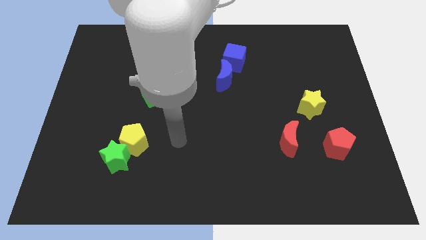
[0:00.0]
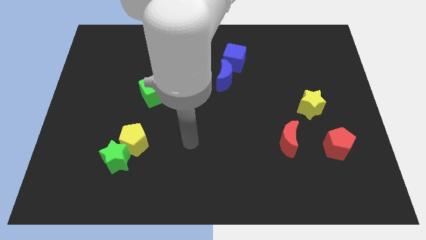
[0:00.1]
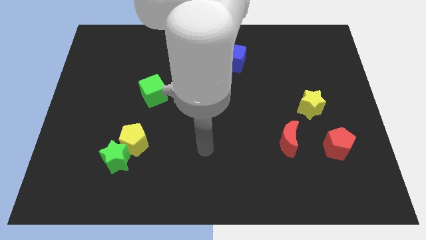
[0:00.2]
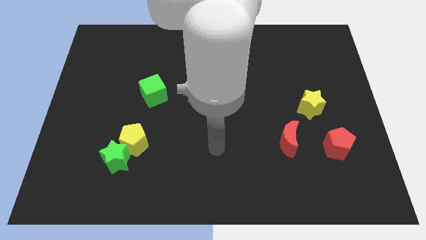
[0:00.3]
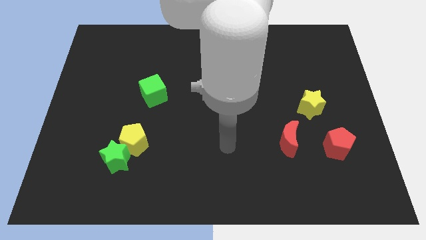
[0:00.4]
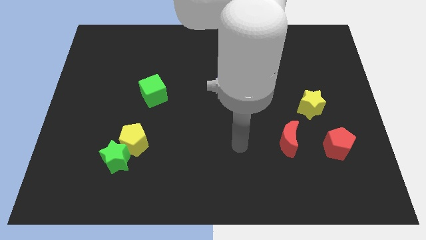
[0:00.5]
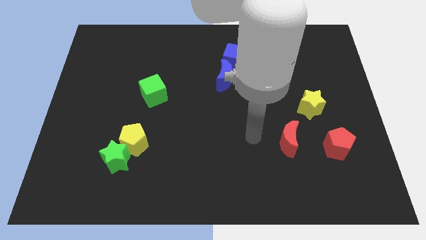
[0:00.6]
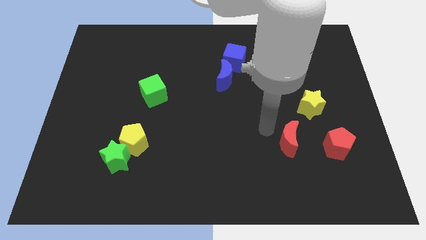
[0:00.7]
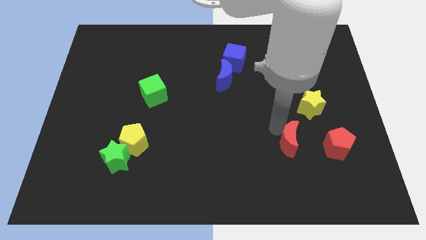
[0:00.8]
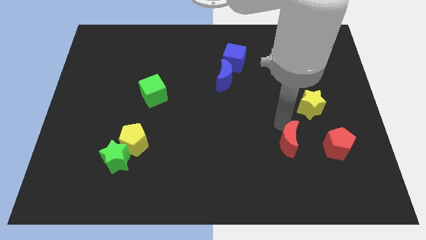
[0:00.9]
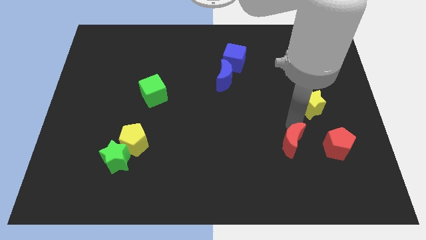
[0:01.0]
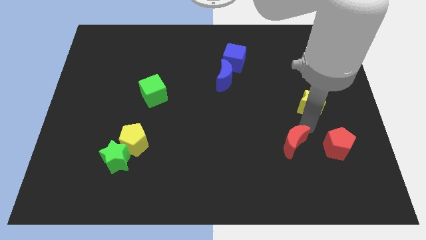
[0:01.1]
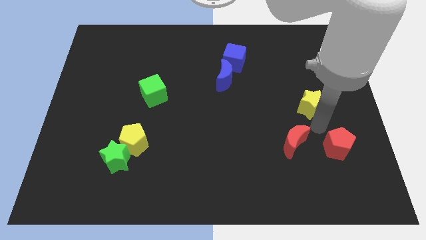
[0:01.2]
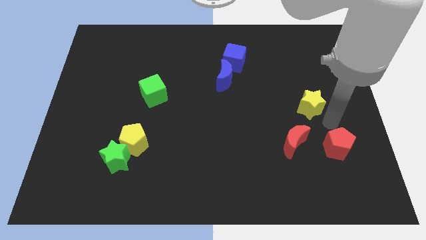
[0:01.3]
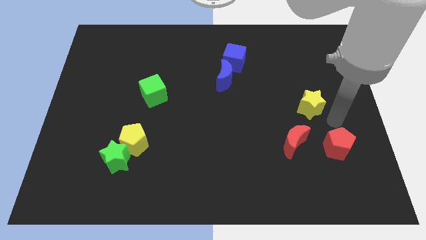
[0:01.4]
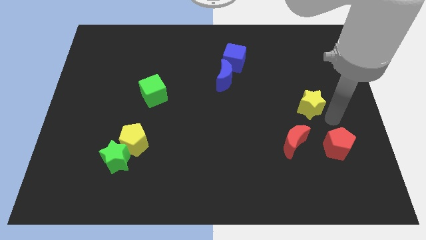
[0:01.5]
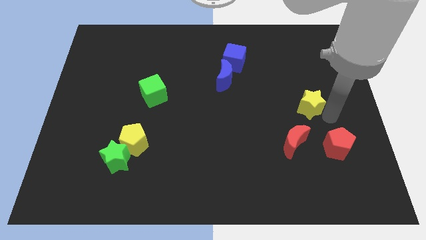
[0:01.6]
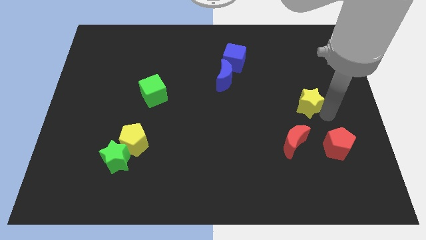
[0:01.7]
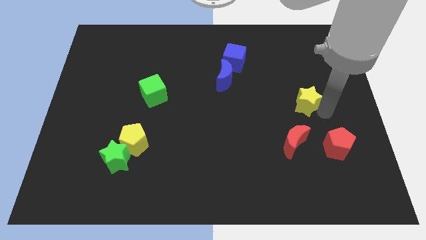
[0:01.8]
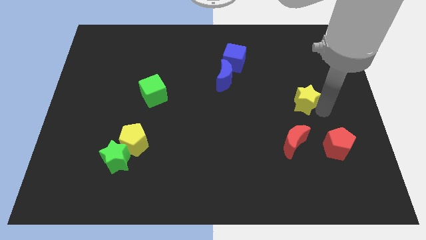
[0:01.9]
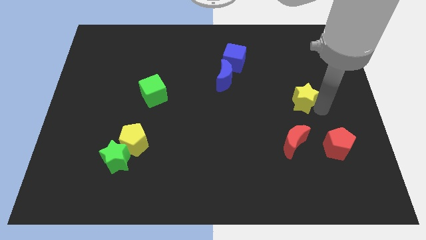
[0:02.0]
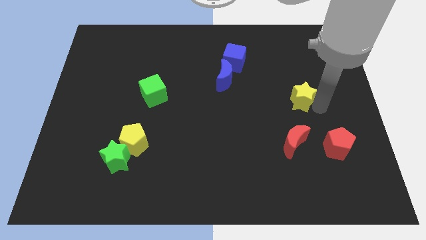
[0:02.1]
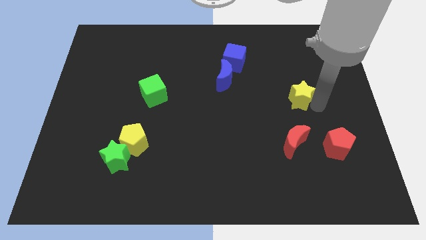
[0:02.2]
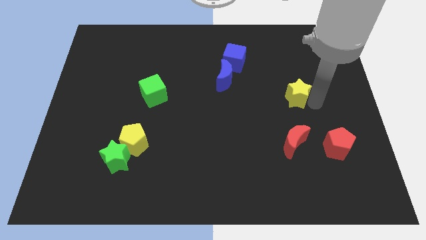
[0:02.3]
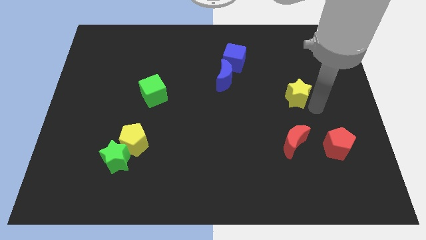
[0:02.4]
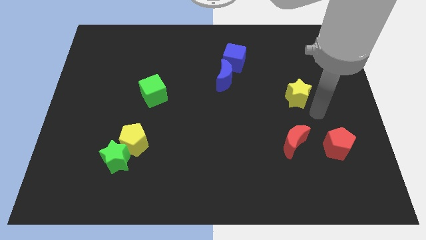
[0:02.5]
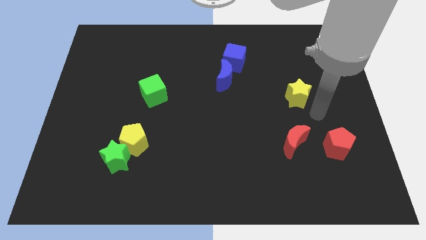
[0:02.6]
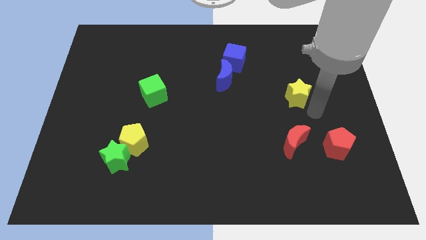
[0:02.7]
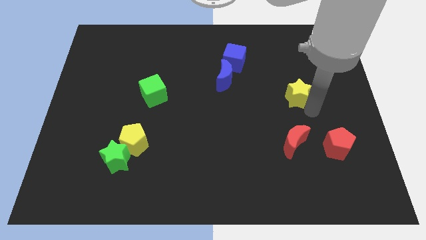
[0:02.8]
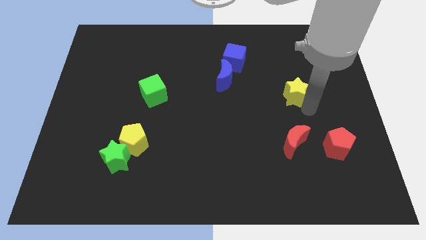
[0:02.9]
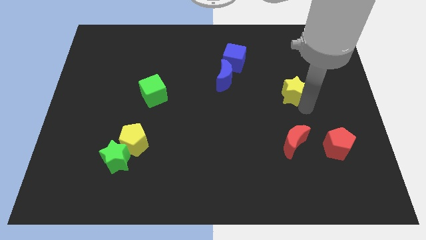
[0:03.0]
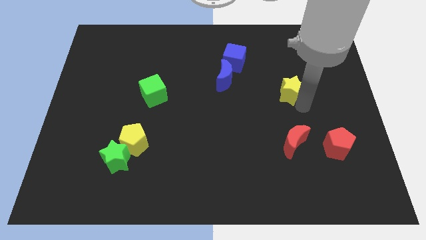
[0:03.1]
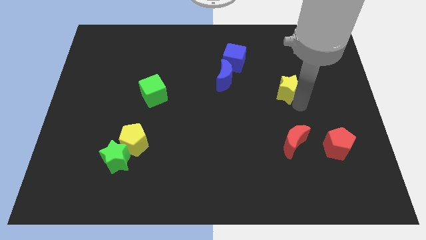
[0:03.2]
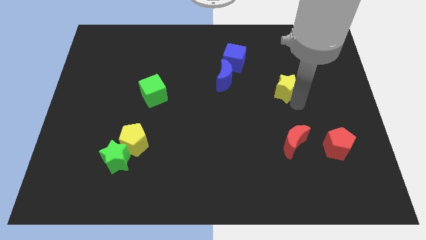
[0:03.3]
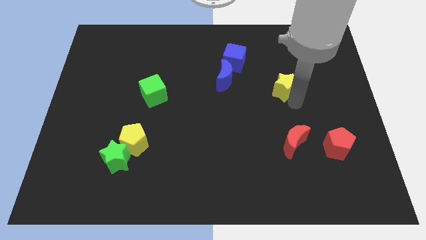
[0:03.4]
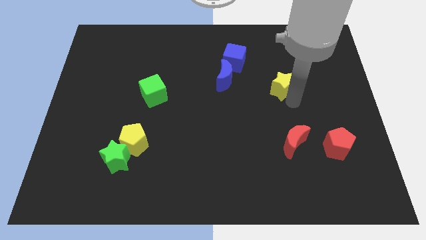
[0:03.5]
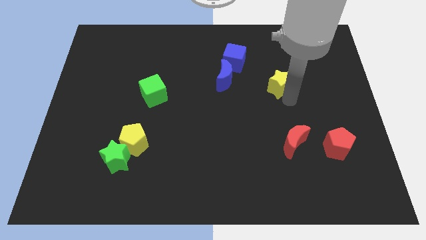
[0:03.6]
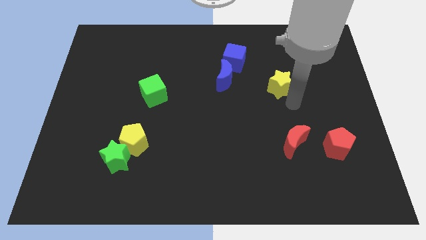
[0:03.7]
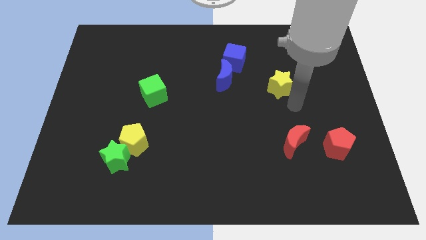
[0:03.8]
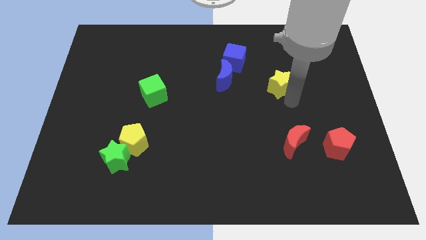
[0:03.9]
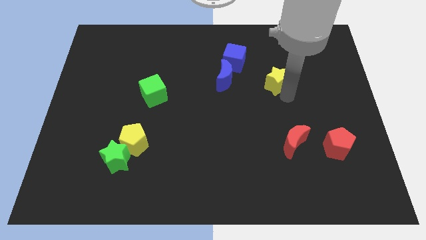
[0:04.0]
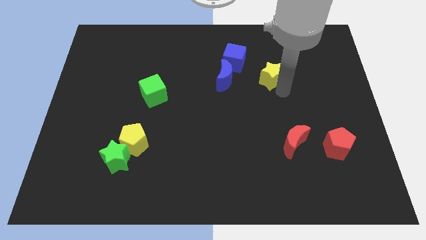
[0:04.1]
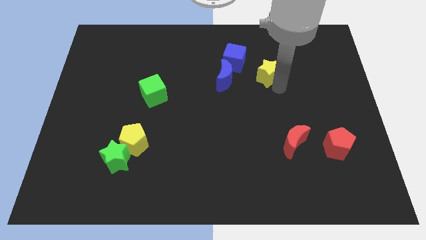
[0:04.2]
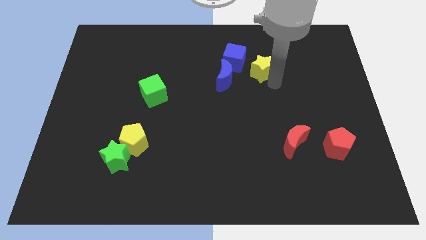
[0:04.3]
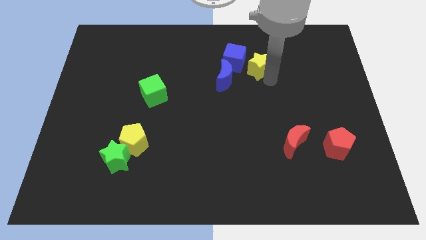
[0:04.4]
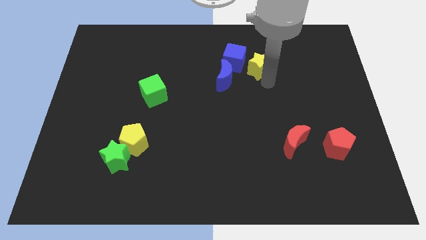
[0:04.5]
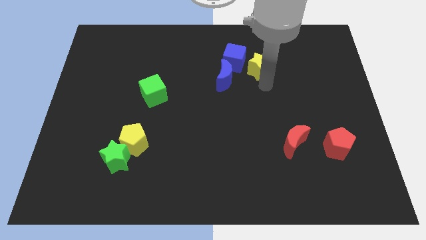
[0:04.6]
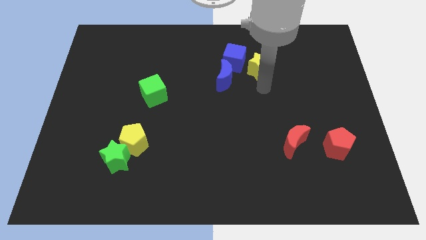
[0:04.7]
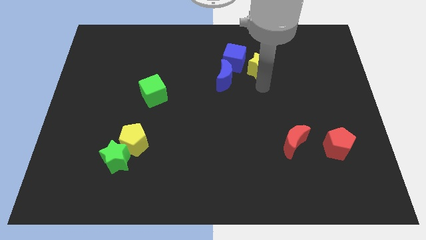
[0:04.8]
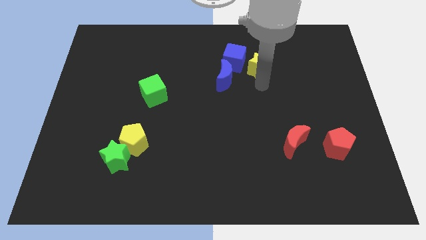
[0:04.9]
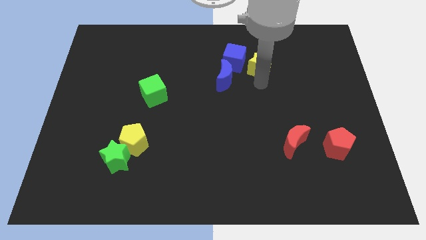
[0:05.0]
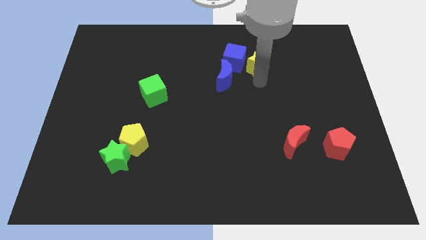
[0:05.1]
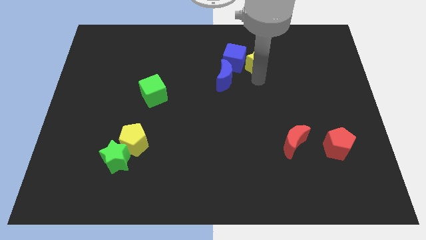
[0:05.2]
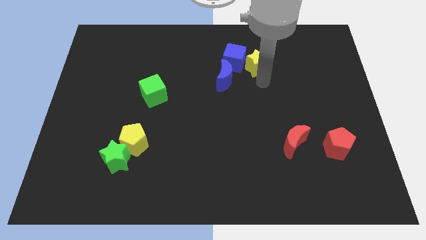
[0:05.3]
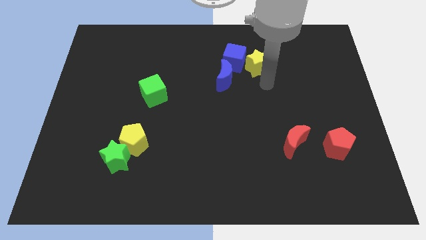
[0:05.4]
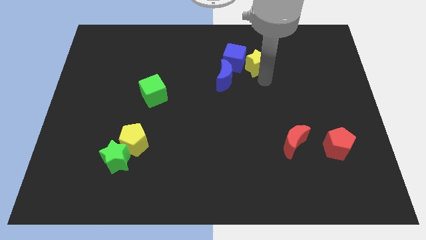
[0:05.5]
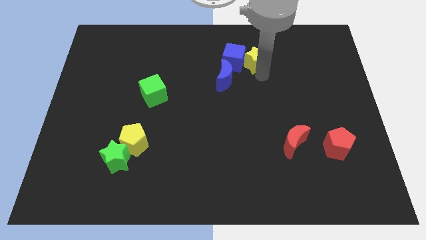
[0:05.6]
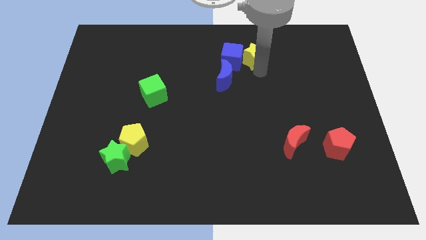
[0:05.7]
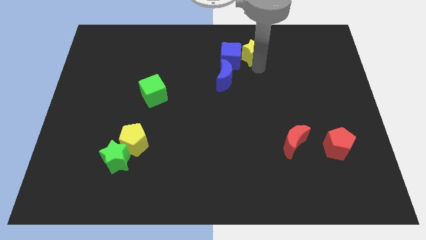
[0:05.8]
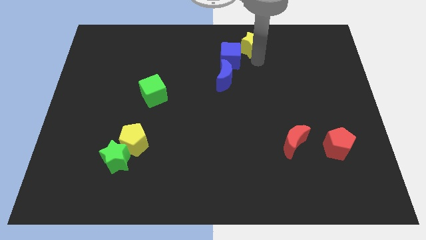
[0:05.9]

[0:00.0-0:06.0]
slide the yellow star to the towards your base

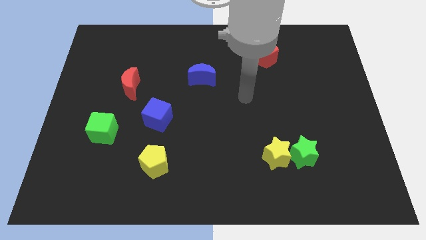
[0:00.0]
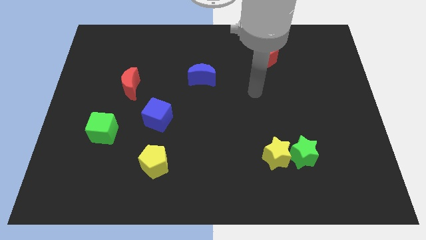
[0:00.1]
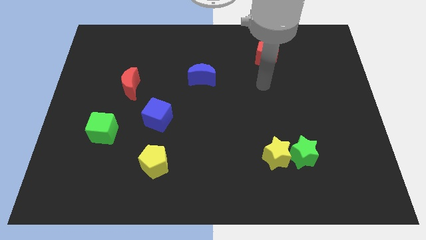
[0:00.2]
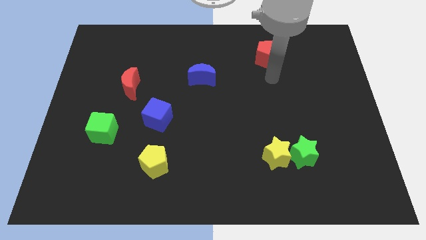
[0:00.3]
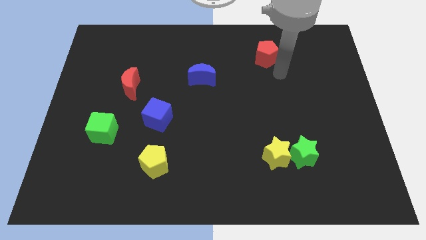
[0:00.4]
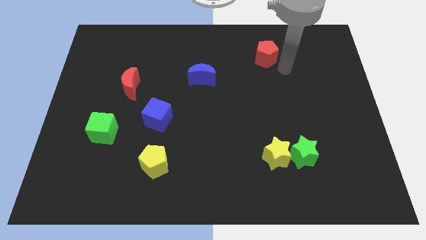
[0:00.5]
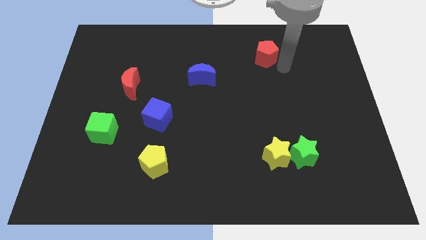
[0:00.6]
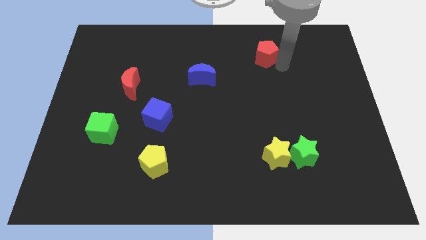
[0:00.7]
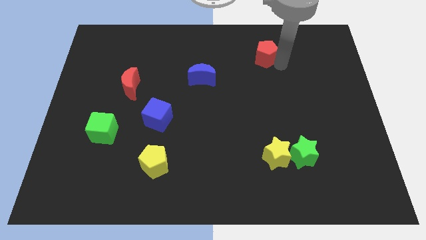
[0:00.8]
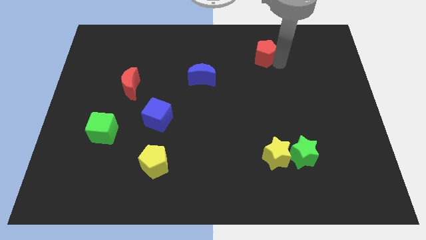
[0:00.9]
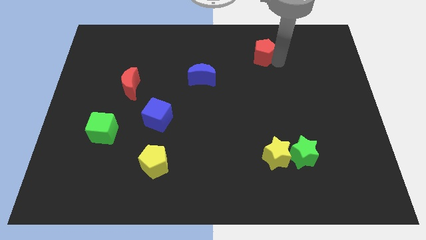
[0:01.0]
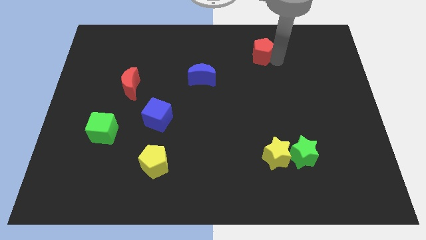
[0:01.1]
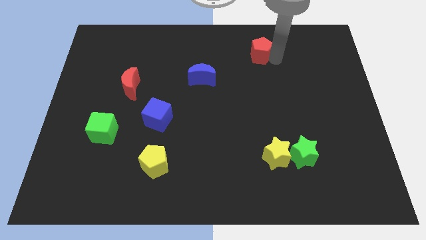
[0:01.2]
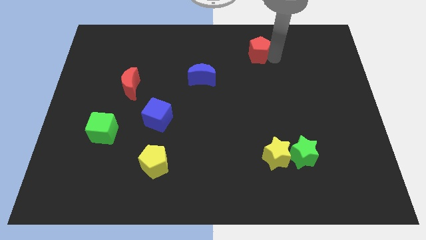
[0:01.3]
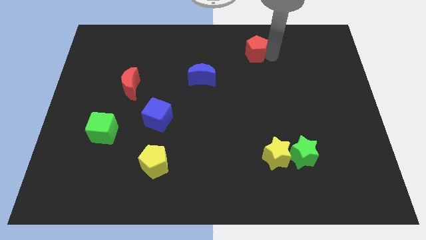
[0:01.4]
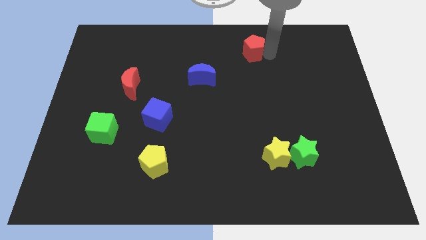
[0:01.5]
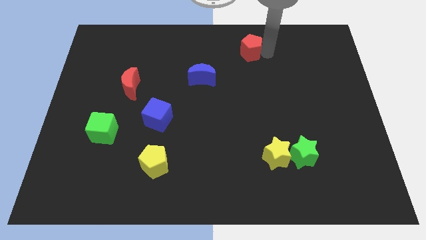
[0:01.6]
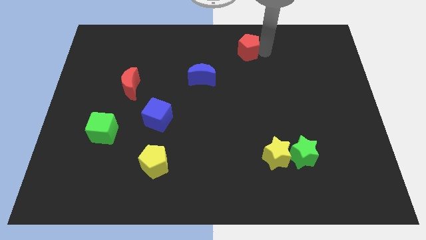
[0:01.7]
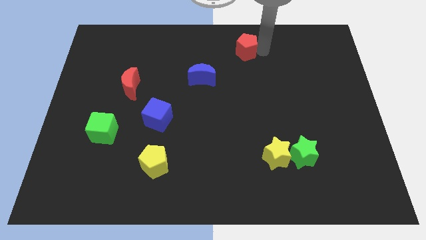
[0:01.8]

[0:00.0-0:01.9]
move the red pentagon to the top side
